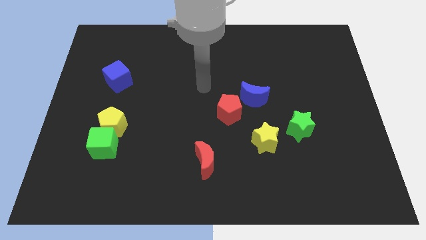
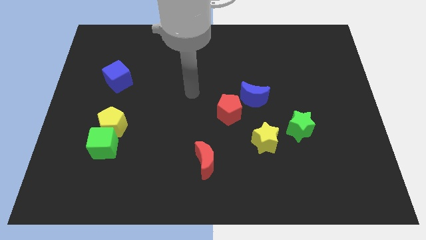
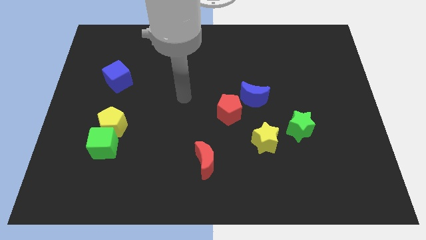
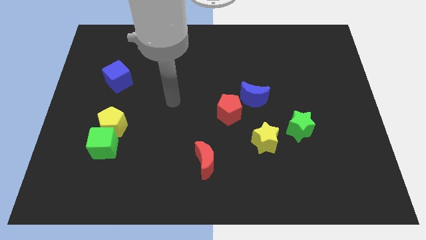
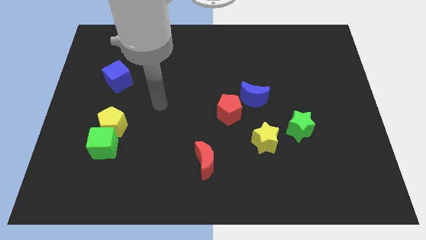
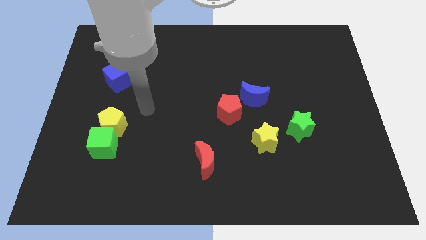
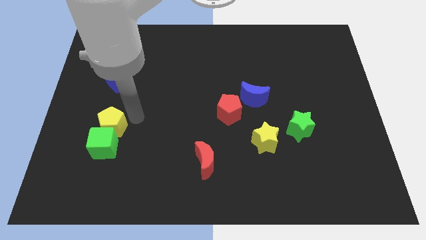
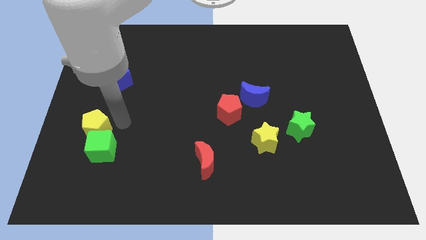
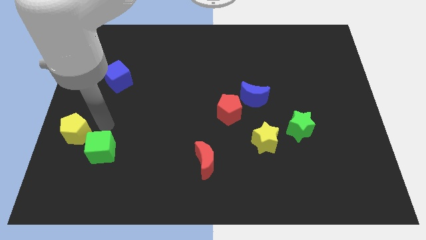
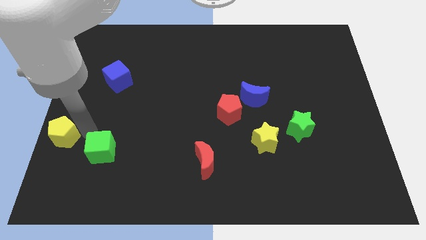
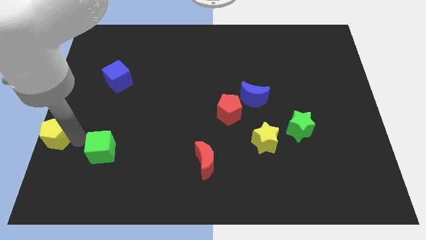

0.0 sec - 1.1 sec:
move the green cube away from the yellow pentagon

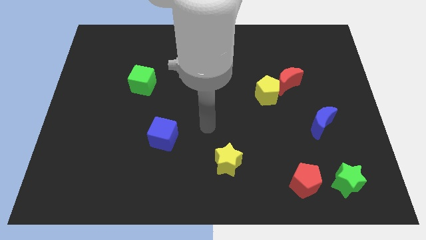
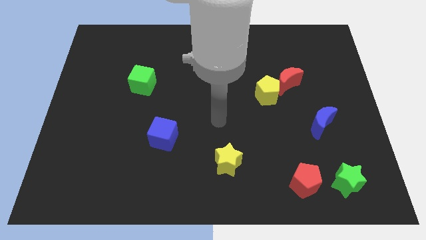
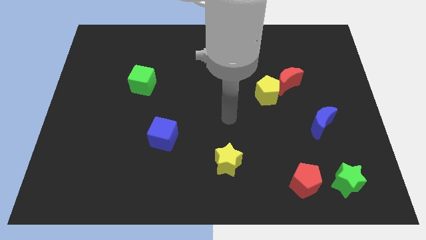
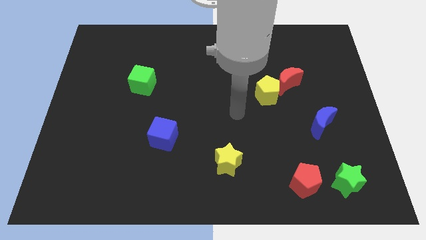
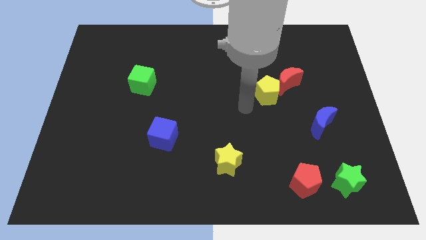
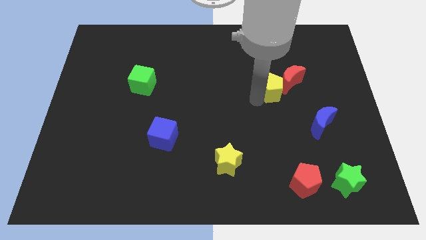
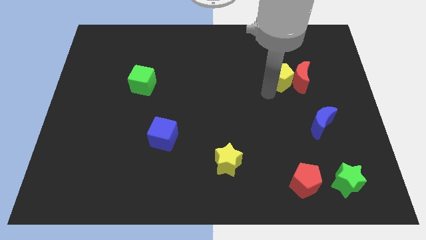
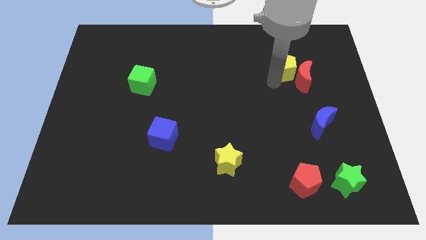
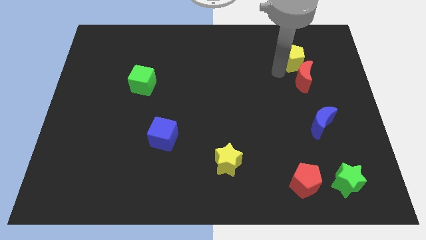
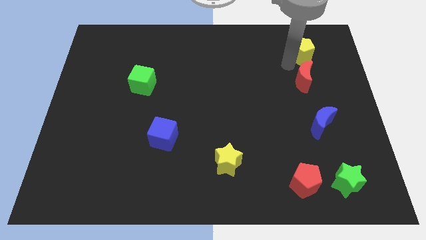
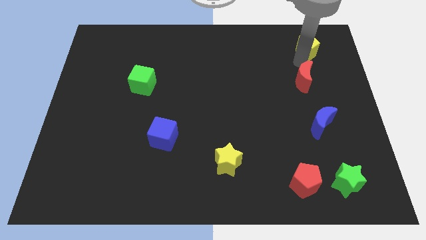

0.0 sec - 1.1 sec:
move the red moon away from the yellow pentagon

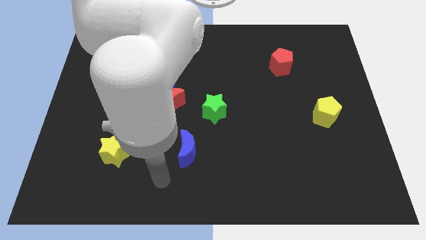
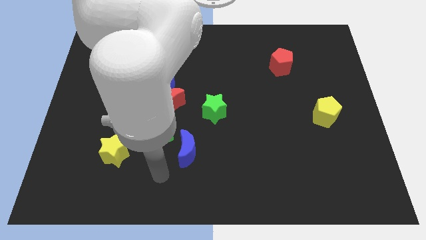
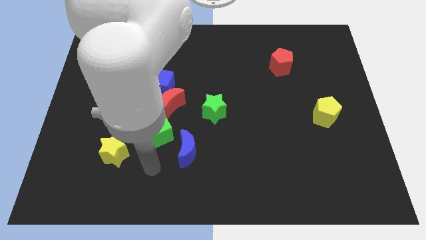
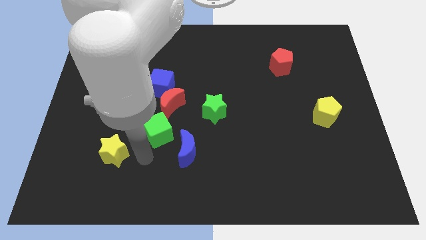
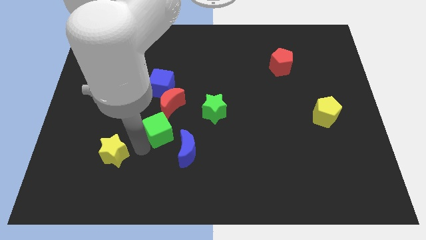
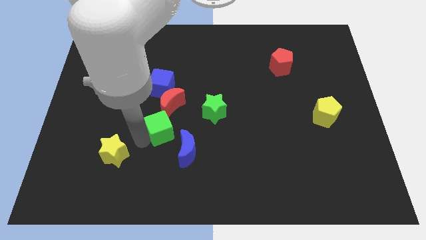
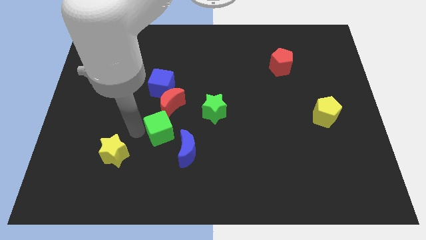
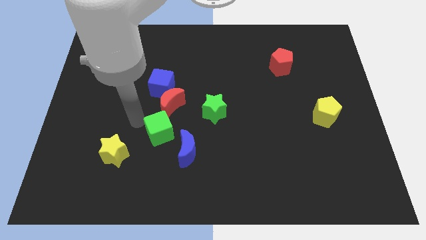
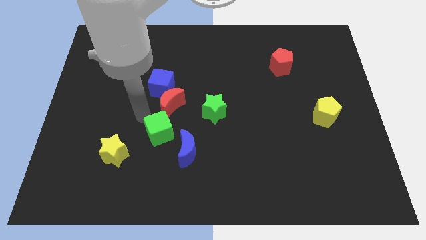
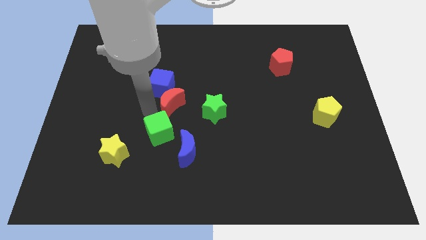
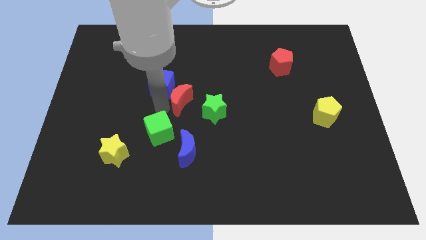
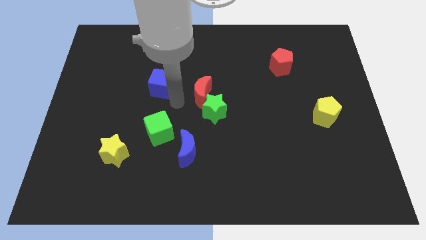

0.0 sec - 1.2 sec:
move the blue cube away from the red moon

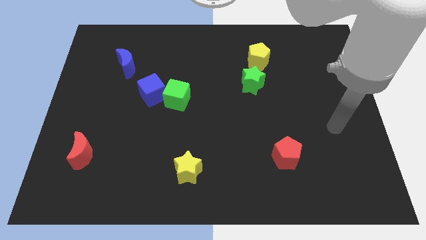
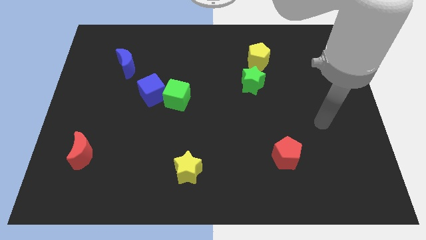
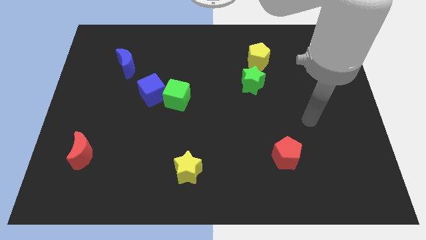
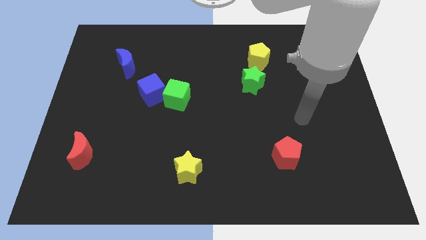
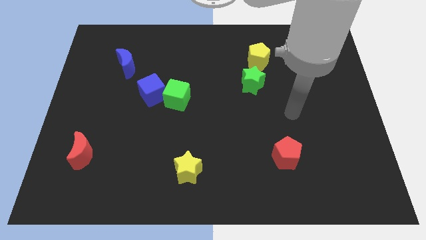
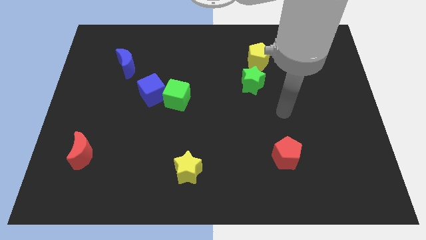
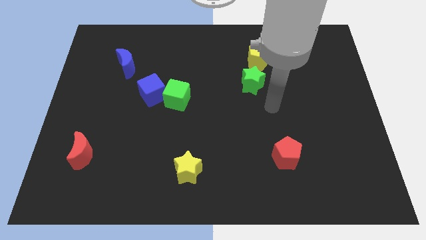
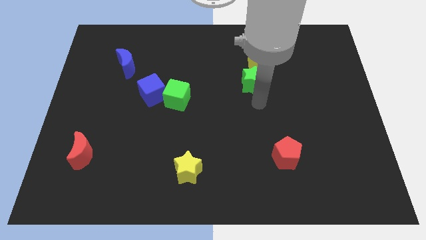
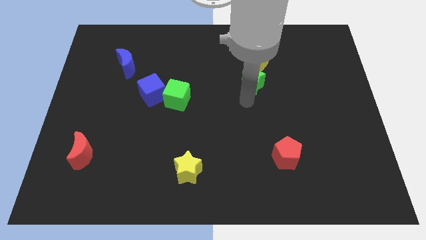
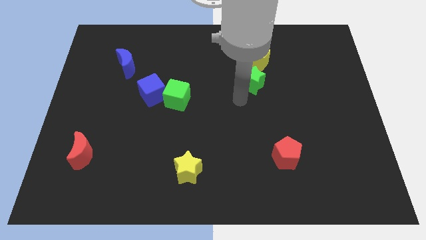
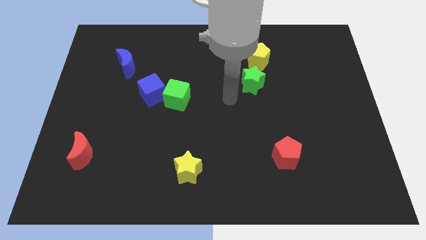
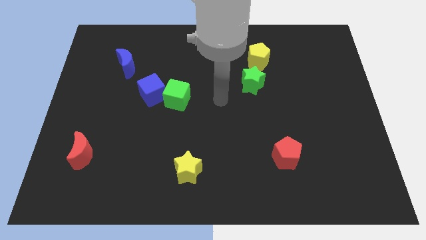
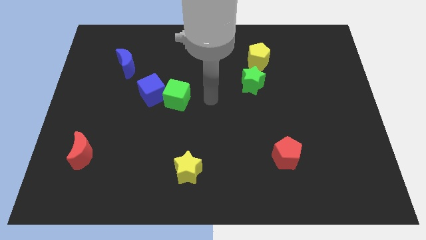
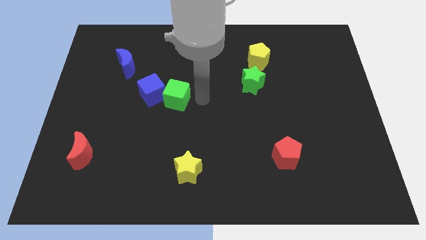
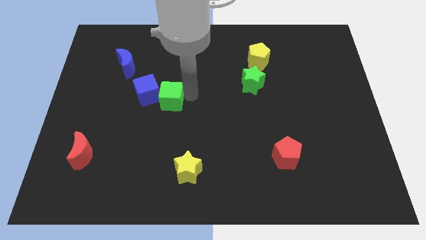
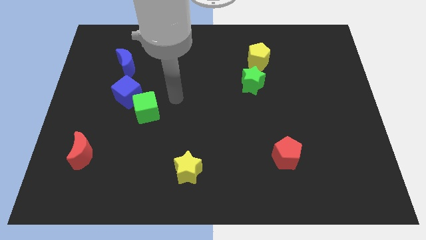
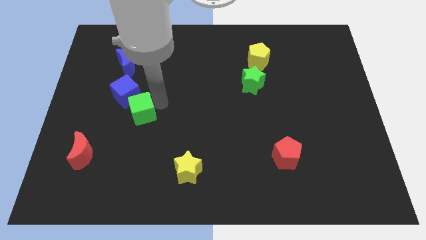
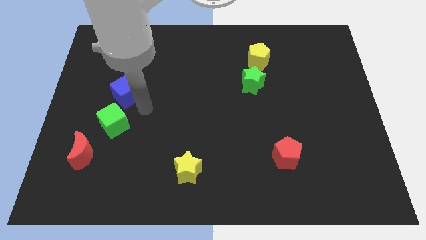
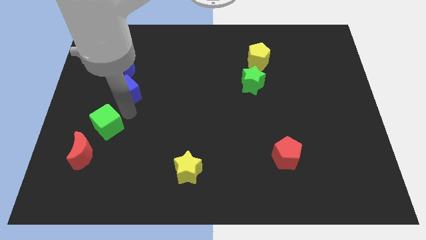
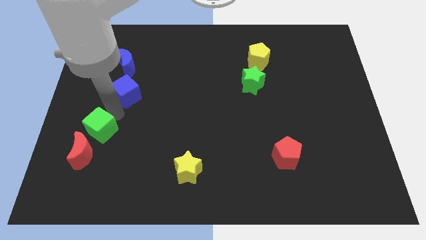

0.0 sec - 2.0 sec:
move the blue cube away from the green cube

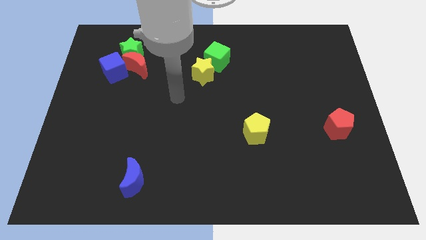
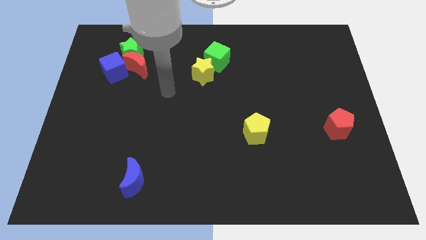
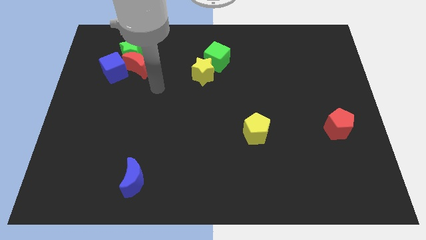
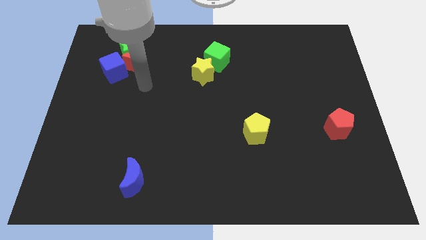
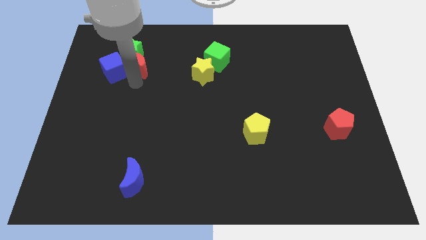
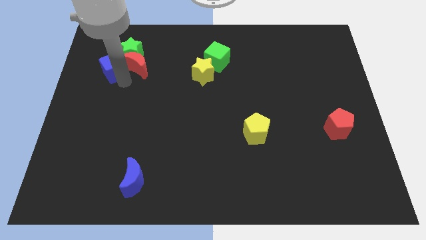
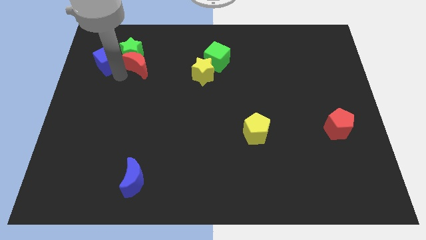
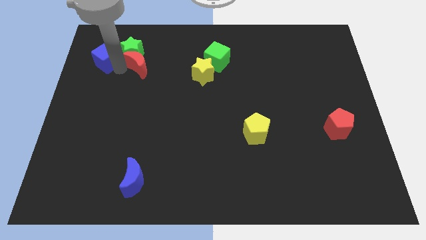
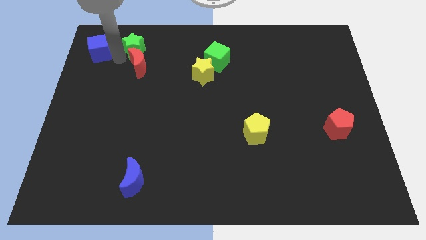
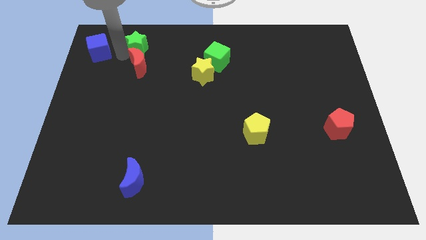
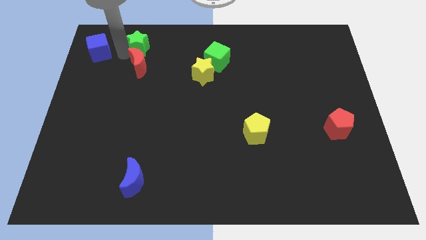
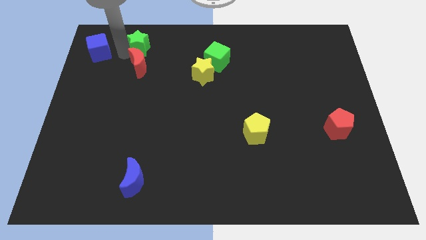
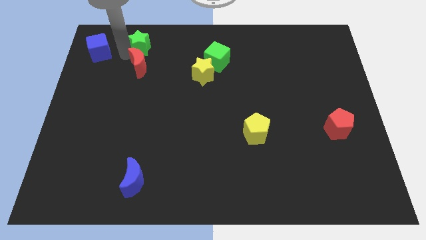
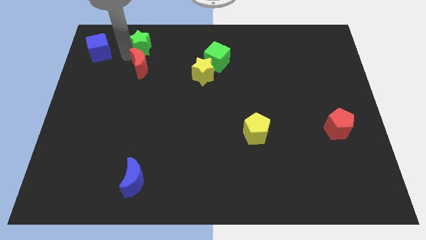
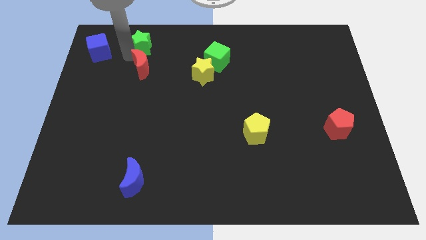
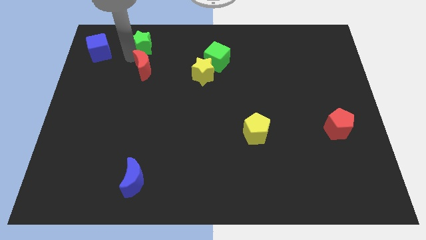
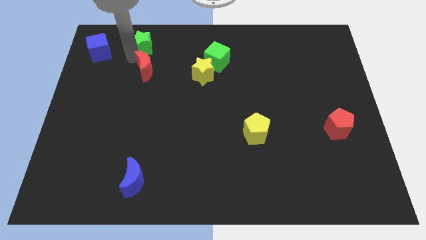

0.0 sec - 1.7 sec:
move the red moon away from the green star and blue cube

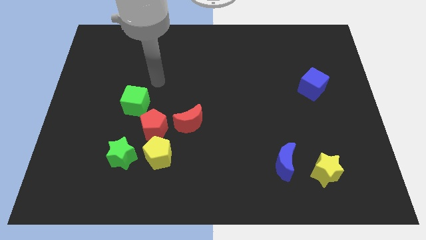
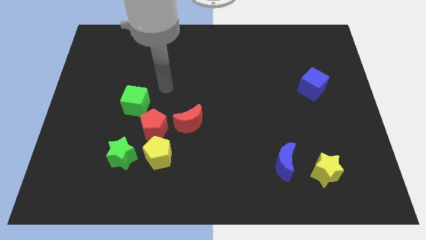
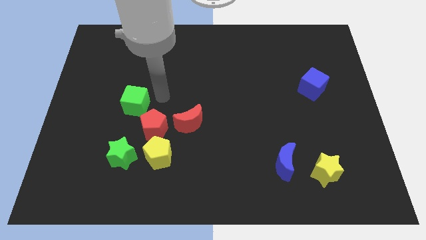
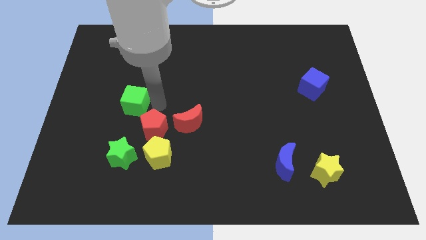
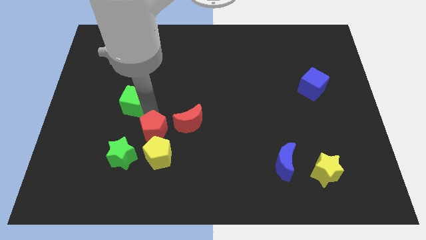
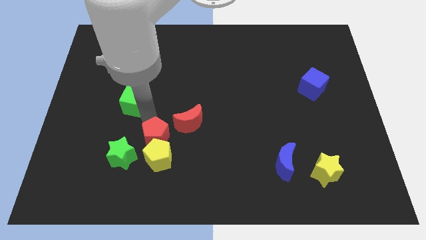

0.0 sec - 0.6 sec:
move the green cube away from the red pentagon

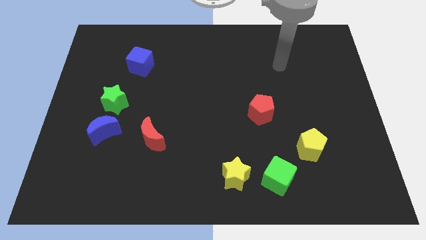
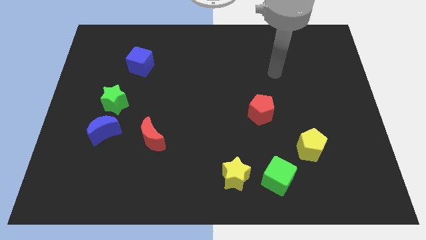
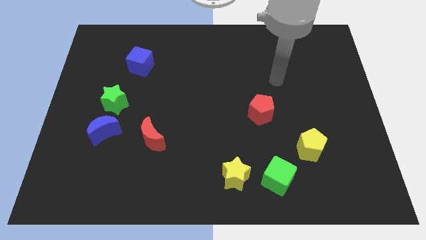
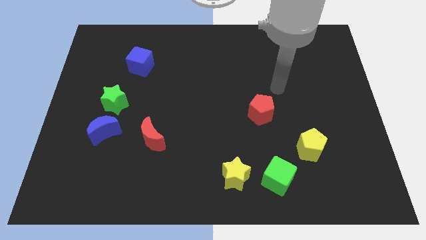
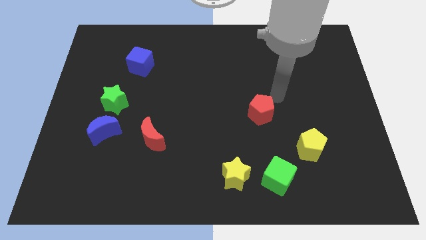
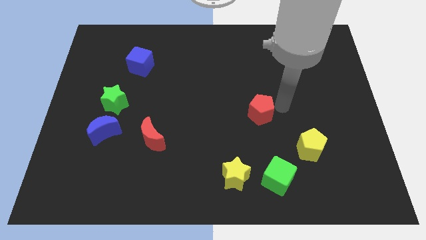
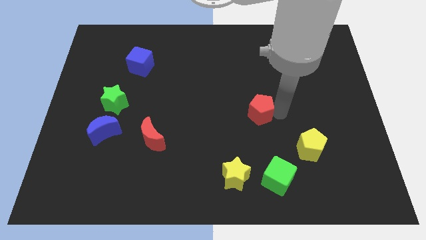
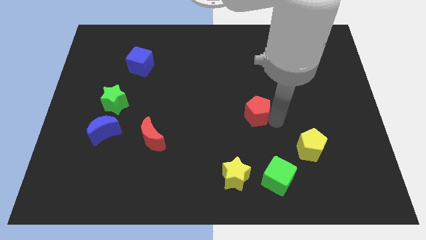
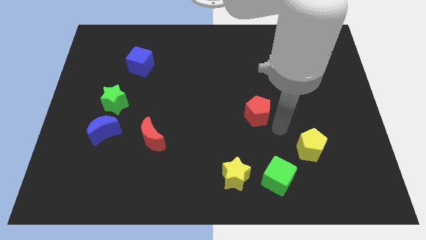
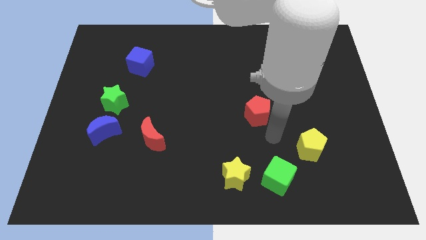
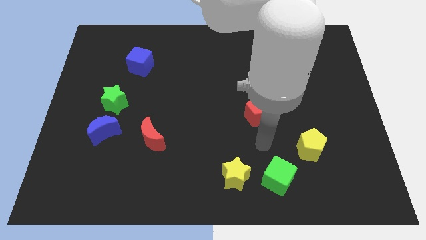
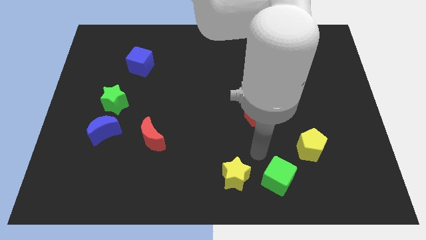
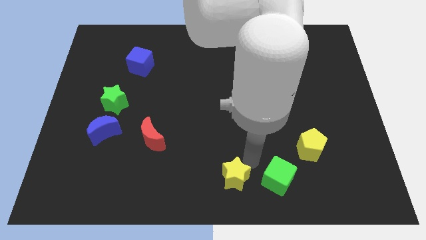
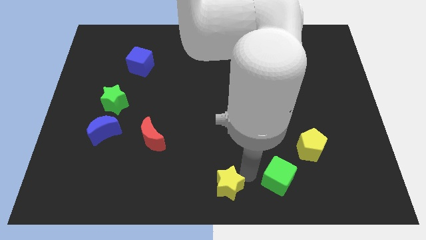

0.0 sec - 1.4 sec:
separate the green cube from the yellow star

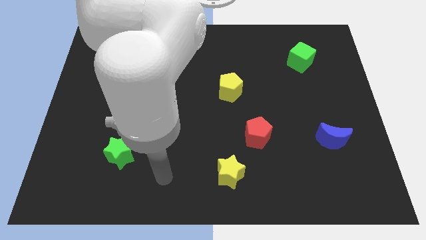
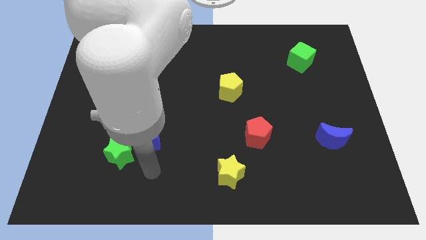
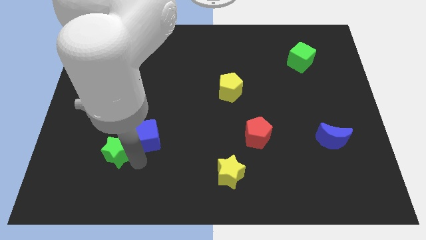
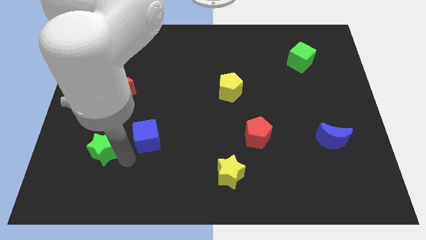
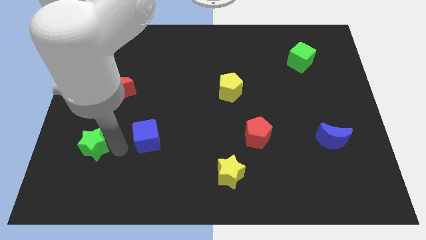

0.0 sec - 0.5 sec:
move the blue cube away from the green star
